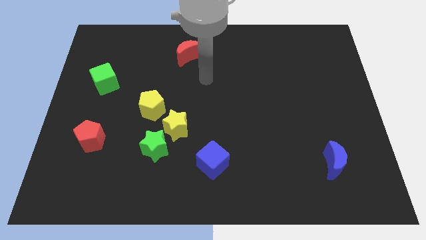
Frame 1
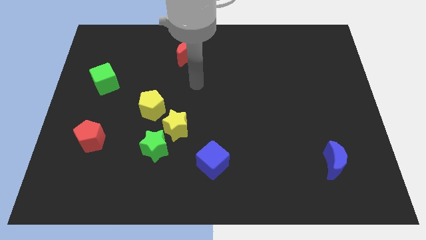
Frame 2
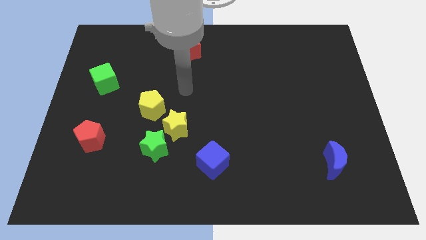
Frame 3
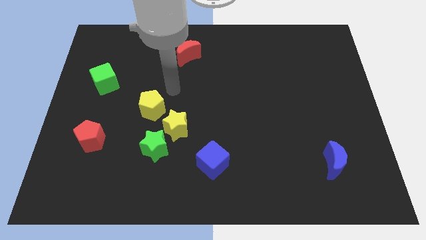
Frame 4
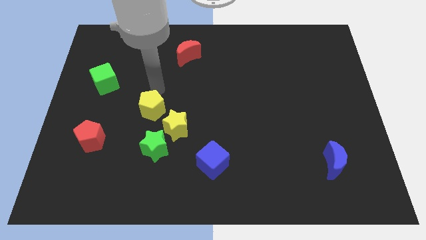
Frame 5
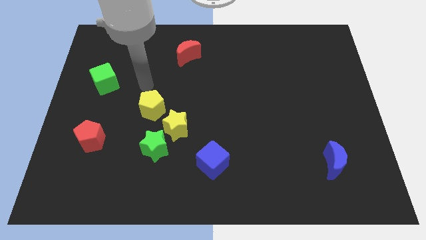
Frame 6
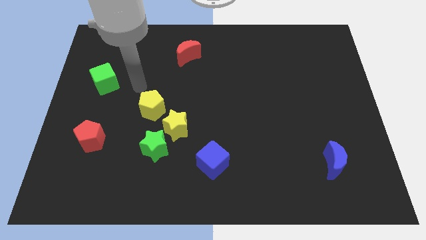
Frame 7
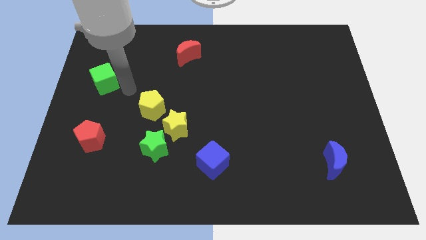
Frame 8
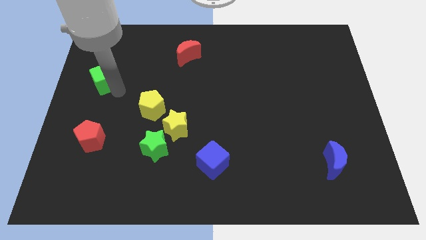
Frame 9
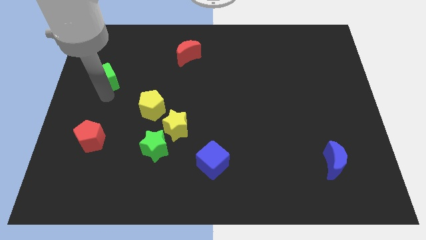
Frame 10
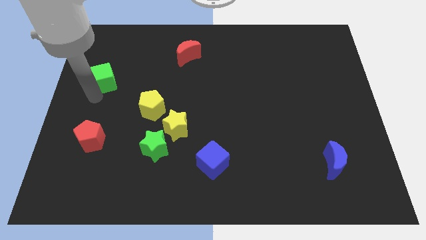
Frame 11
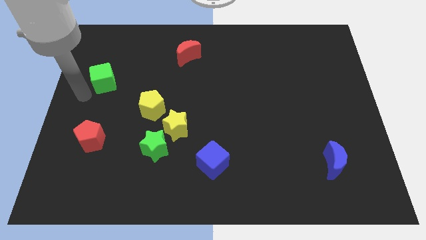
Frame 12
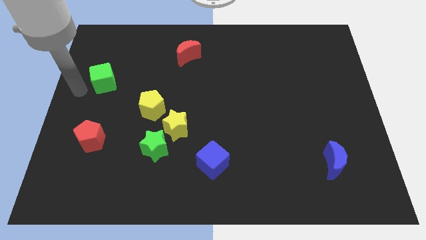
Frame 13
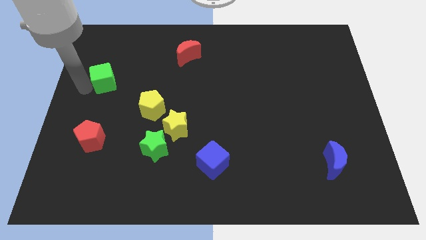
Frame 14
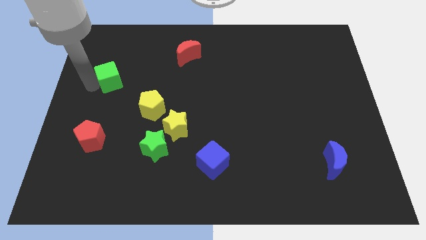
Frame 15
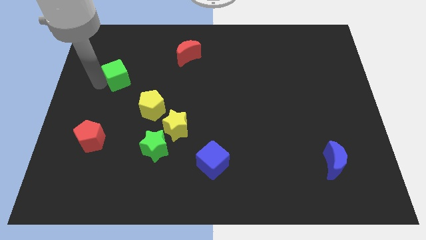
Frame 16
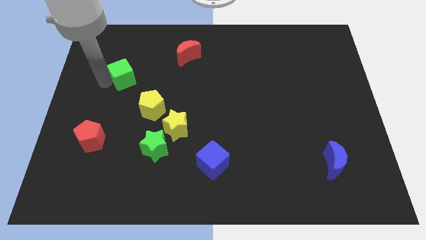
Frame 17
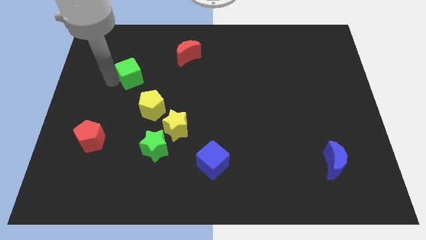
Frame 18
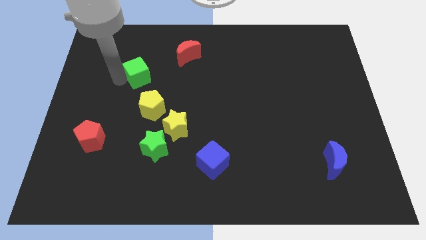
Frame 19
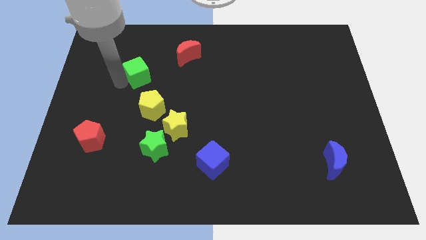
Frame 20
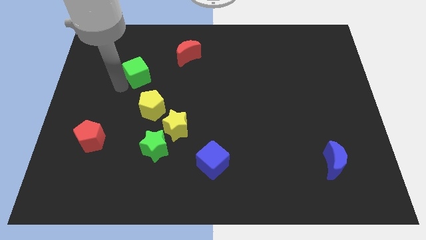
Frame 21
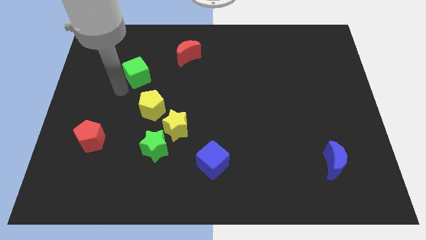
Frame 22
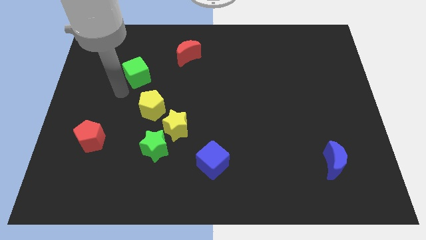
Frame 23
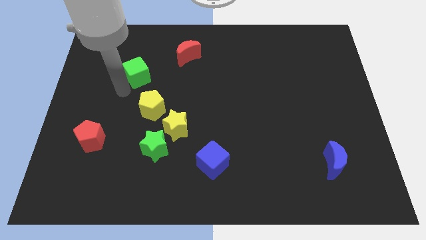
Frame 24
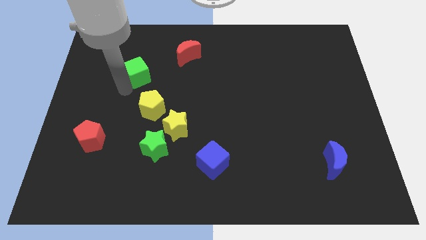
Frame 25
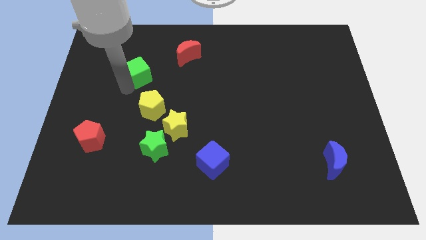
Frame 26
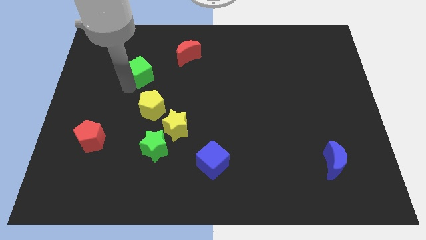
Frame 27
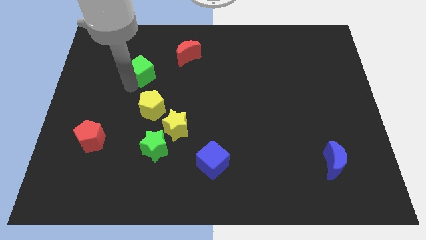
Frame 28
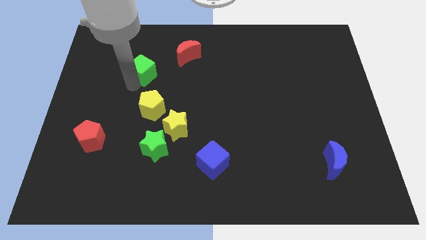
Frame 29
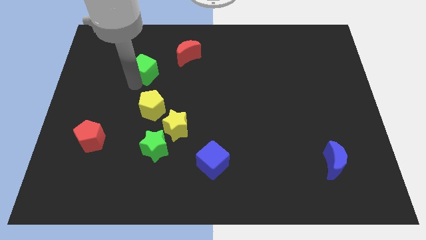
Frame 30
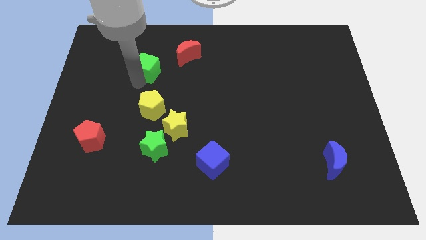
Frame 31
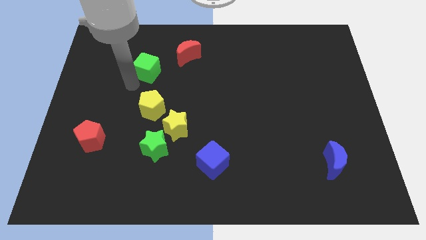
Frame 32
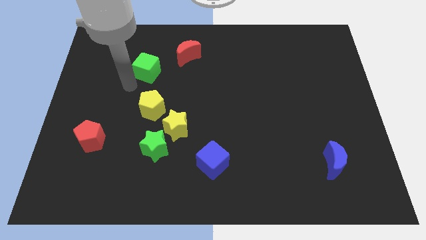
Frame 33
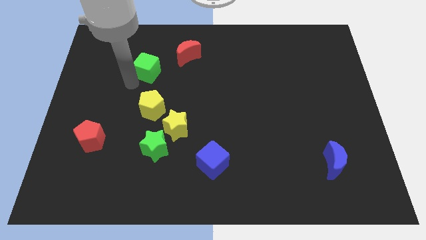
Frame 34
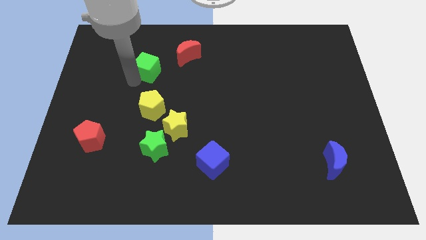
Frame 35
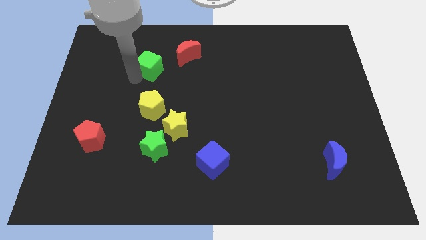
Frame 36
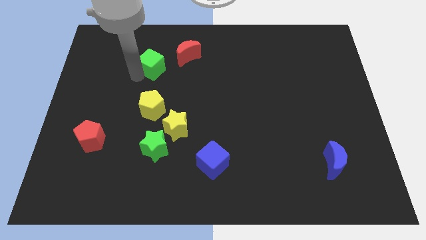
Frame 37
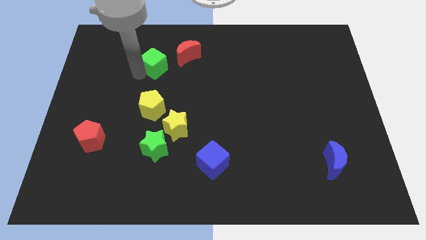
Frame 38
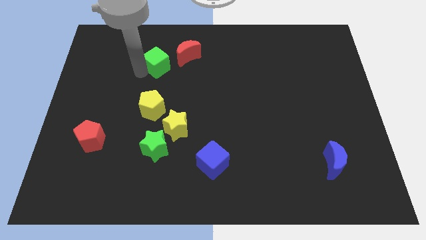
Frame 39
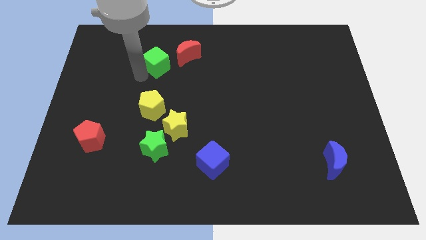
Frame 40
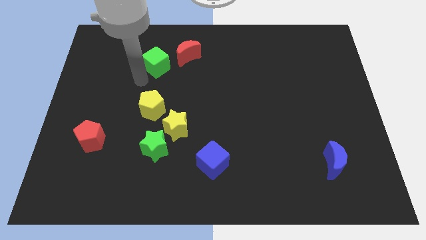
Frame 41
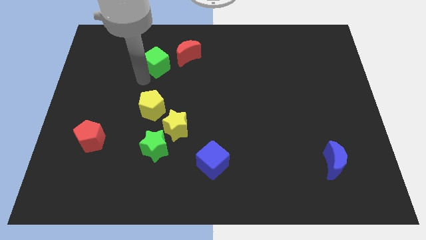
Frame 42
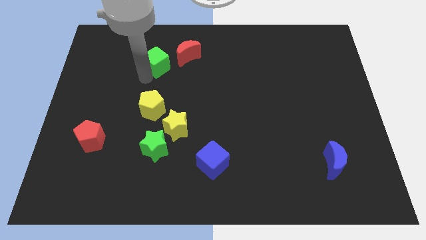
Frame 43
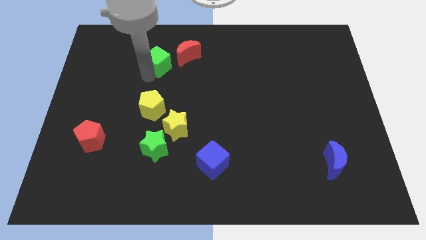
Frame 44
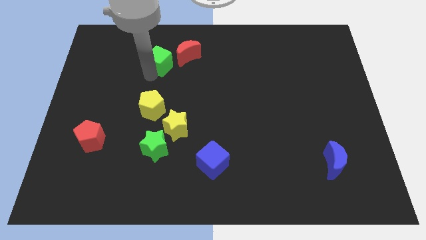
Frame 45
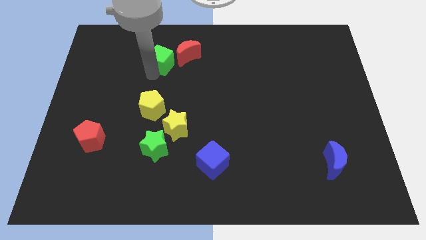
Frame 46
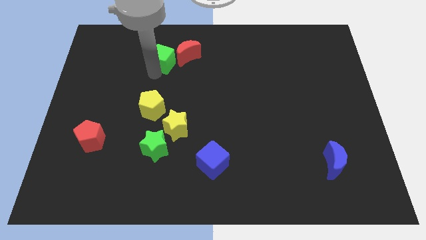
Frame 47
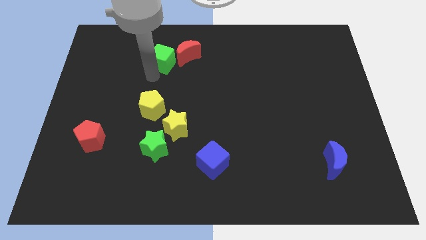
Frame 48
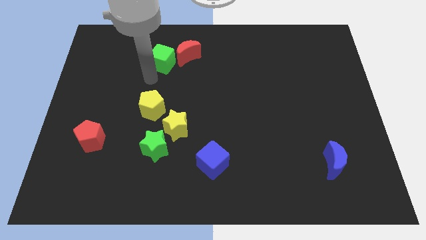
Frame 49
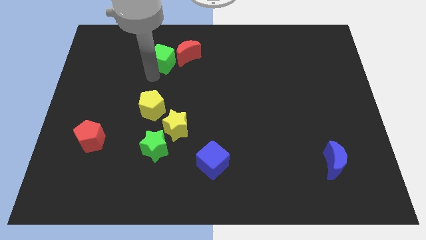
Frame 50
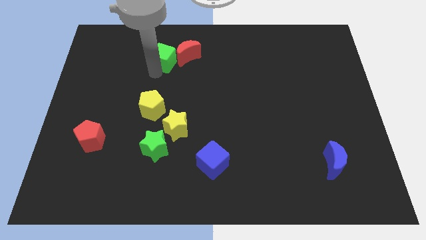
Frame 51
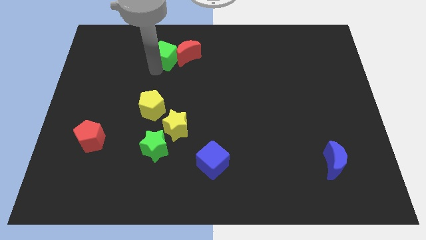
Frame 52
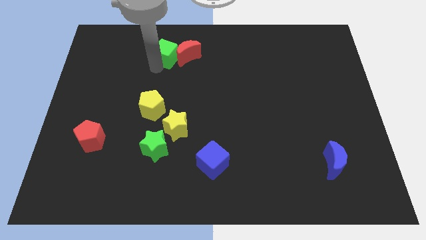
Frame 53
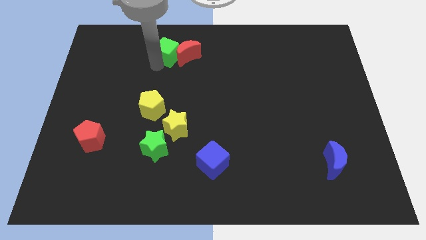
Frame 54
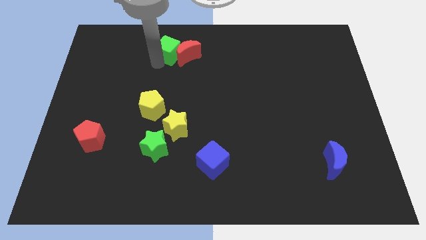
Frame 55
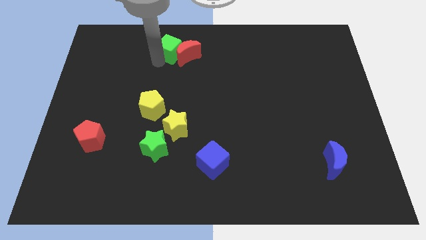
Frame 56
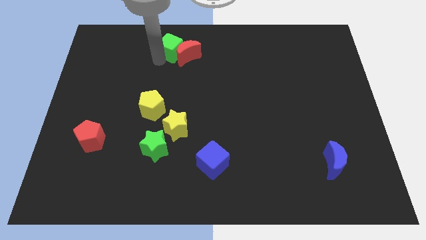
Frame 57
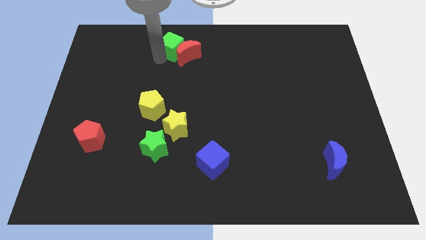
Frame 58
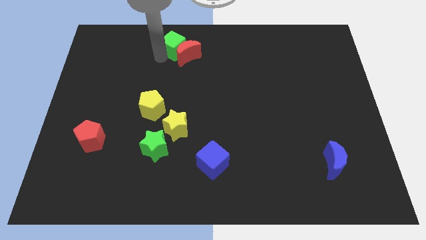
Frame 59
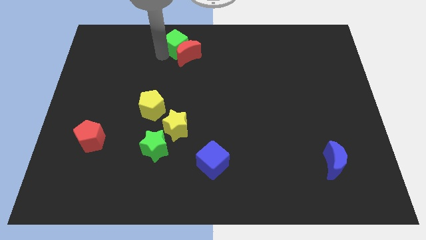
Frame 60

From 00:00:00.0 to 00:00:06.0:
move the green cube to the towards your base

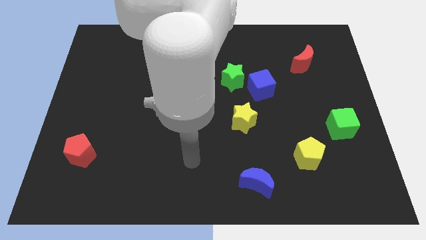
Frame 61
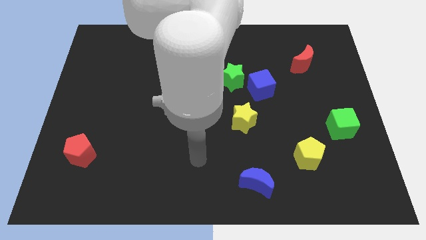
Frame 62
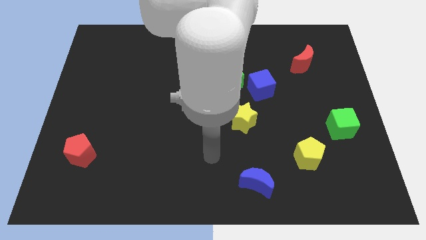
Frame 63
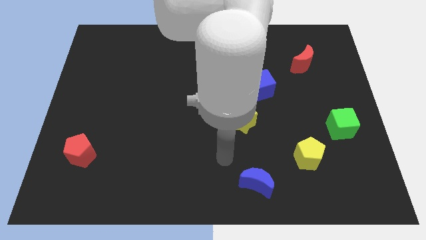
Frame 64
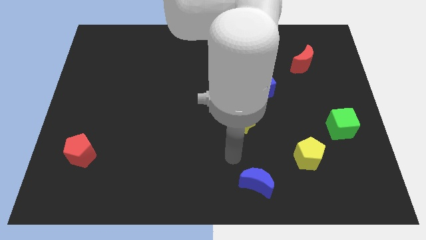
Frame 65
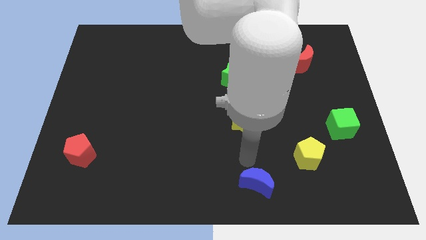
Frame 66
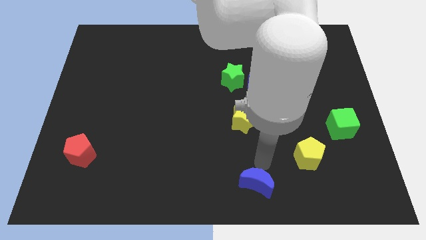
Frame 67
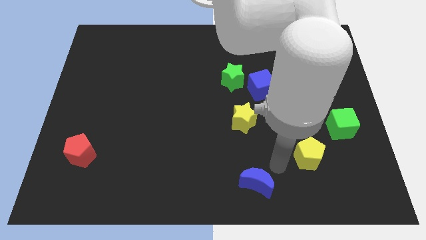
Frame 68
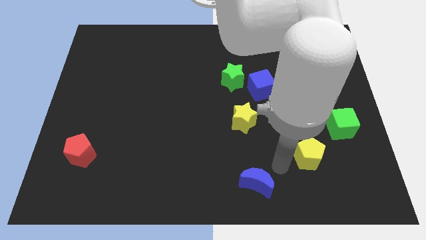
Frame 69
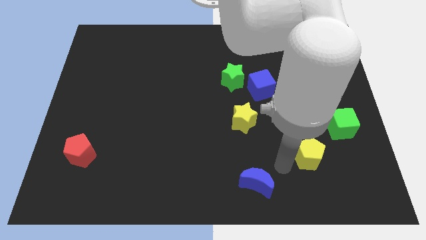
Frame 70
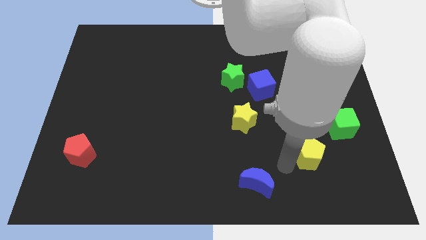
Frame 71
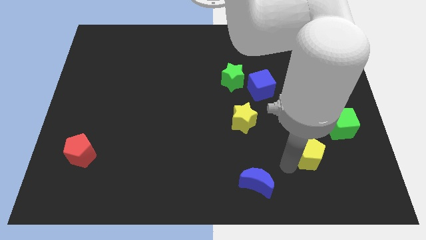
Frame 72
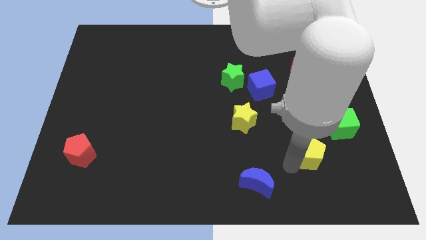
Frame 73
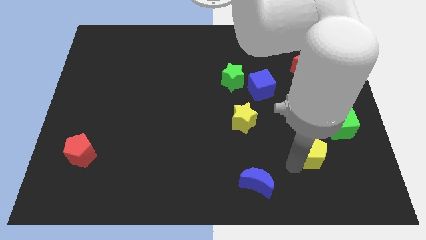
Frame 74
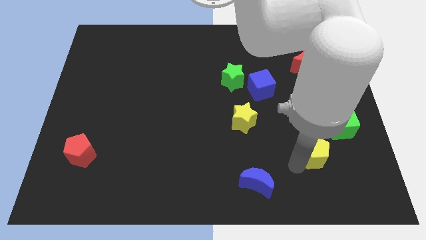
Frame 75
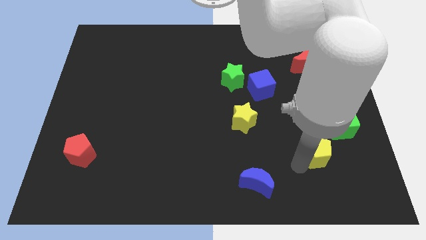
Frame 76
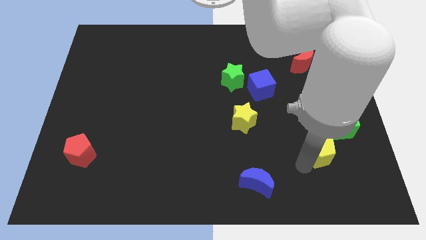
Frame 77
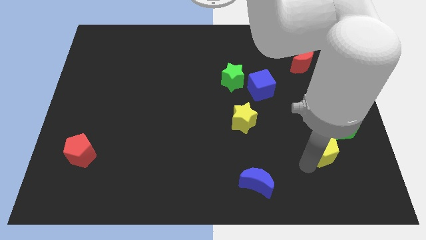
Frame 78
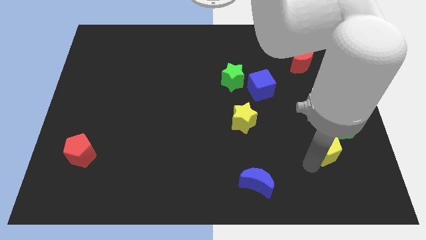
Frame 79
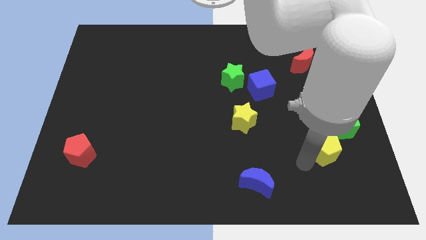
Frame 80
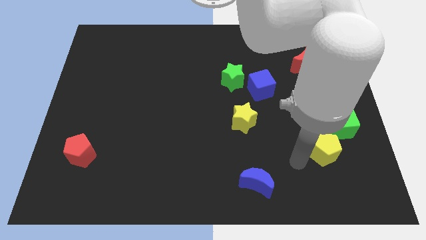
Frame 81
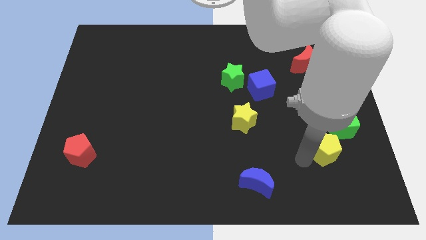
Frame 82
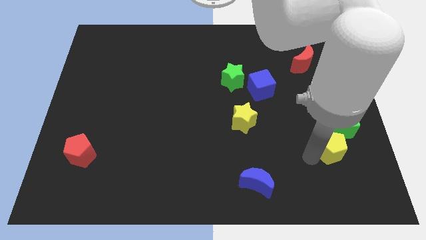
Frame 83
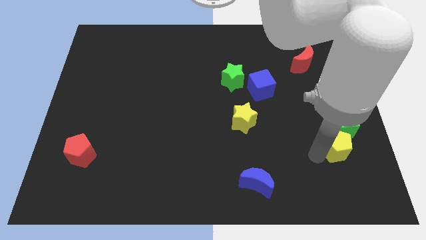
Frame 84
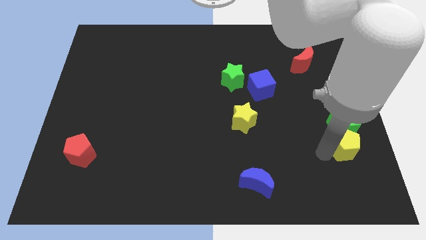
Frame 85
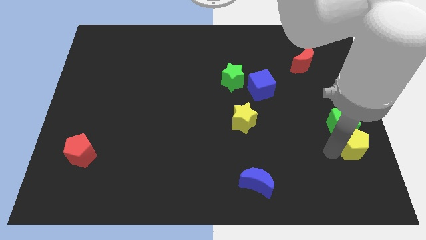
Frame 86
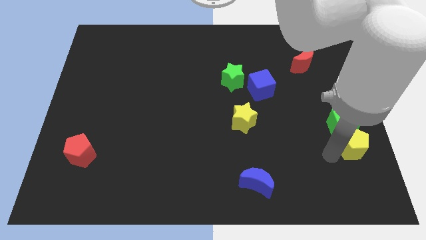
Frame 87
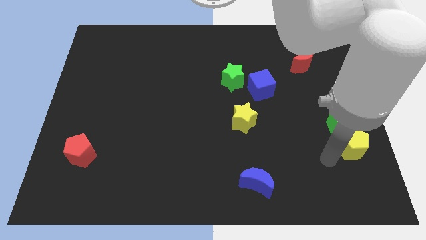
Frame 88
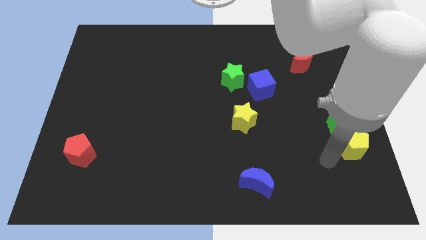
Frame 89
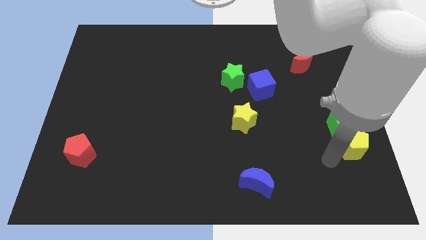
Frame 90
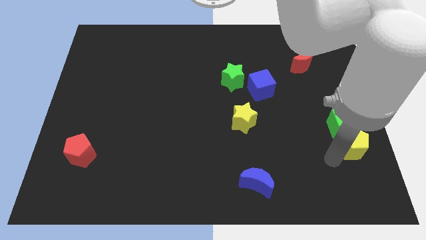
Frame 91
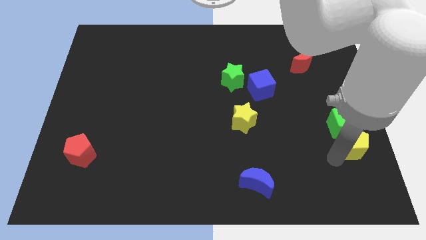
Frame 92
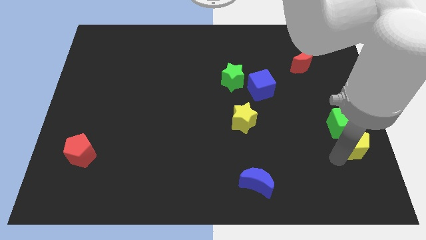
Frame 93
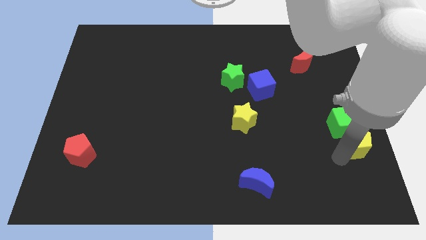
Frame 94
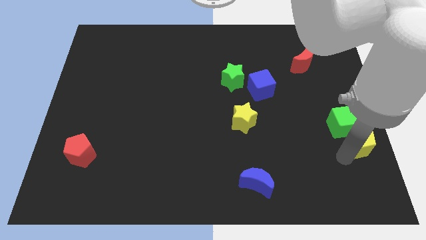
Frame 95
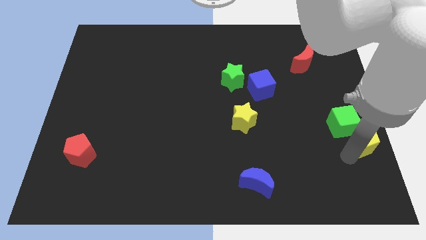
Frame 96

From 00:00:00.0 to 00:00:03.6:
put the yellow pentagon to the center right
